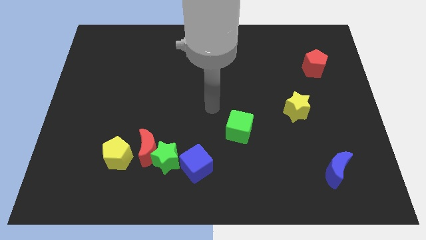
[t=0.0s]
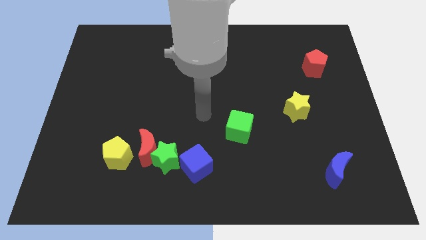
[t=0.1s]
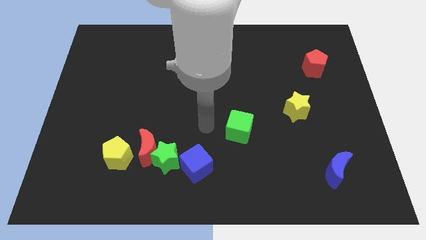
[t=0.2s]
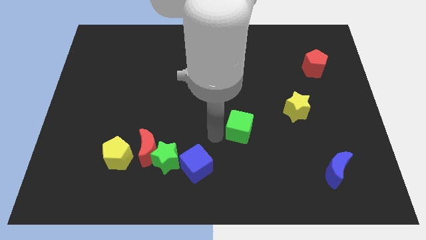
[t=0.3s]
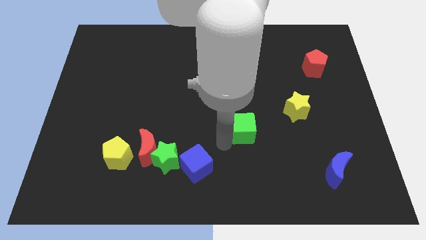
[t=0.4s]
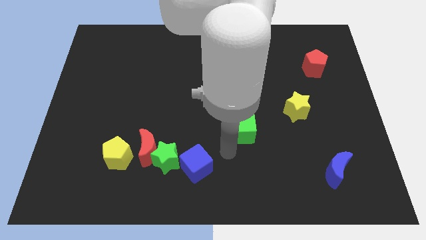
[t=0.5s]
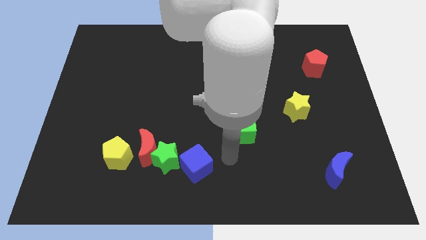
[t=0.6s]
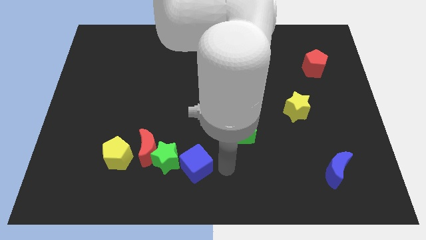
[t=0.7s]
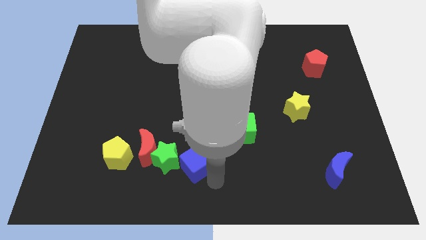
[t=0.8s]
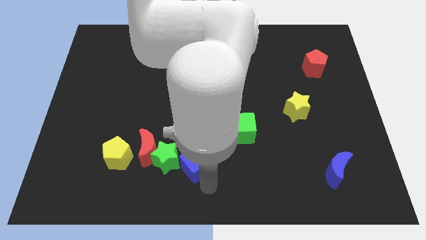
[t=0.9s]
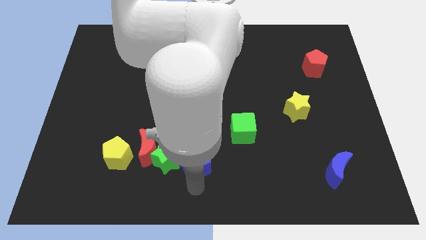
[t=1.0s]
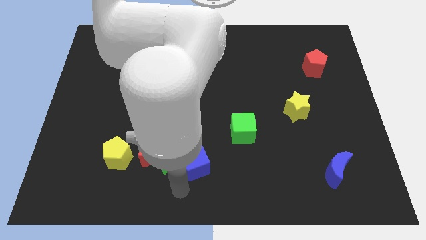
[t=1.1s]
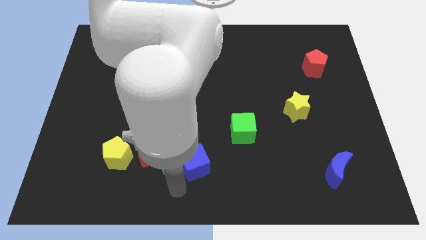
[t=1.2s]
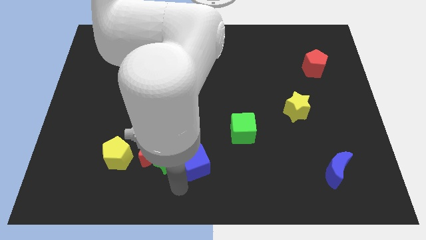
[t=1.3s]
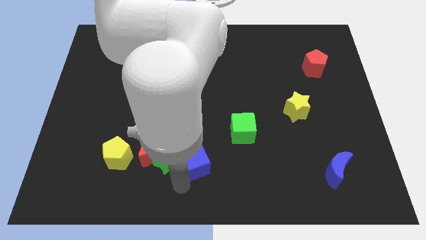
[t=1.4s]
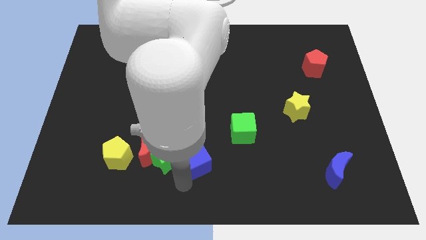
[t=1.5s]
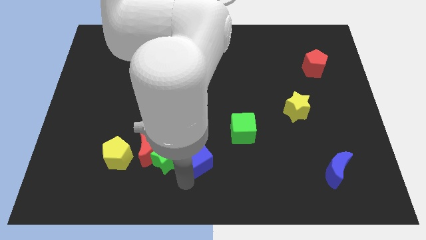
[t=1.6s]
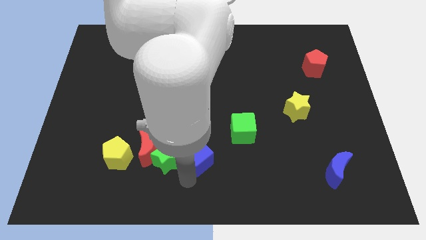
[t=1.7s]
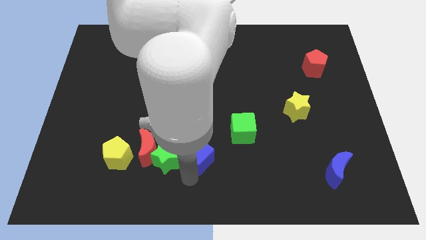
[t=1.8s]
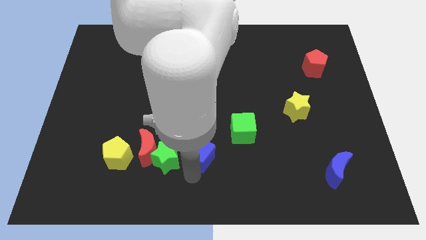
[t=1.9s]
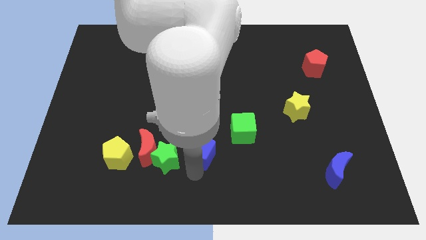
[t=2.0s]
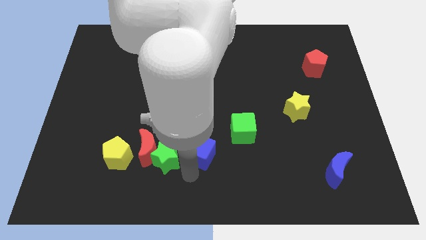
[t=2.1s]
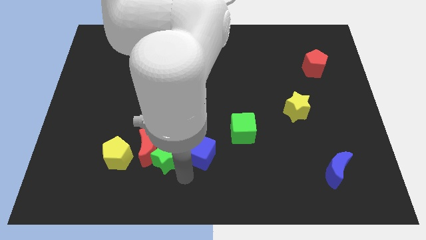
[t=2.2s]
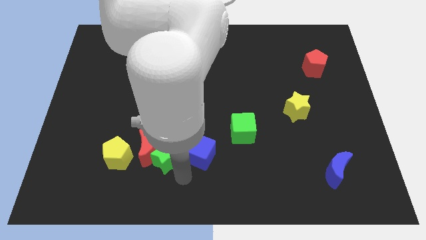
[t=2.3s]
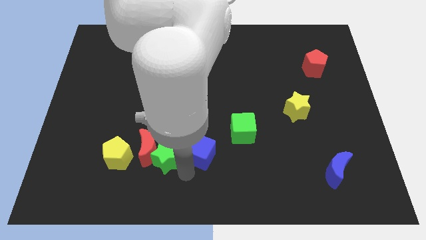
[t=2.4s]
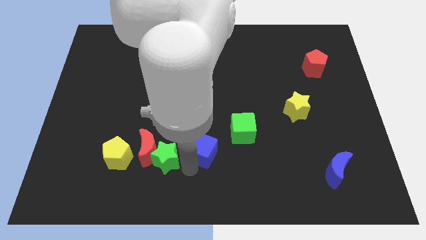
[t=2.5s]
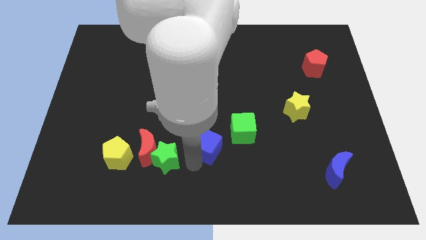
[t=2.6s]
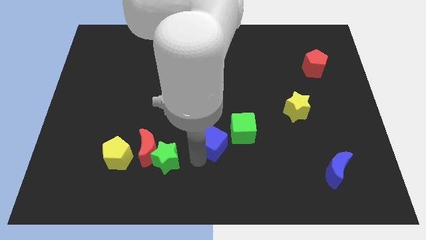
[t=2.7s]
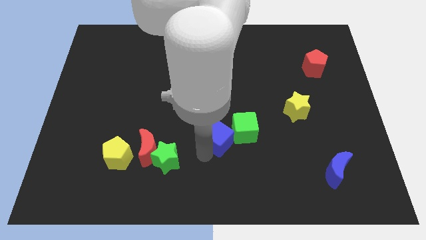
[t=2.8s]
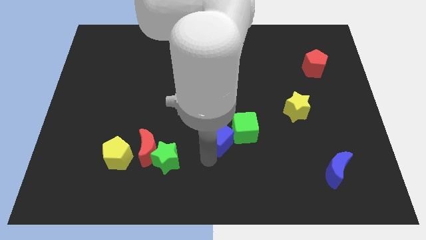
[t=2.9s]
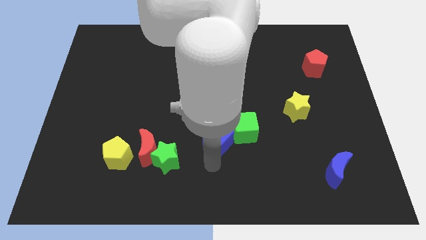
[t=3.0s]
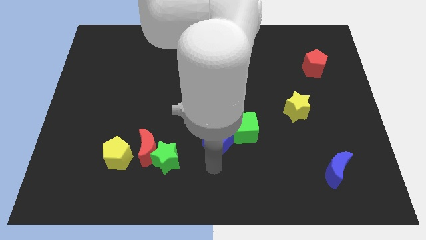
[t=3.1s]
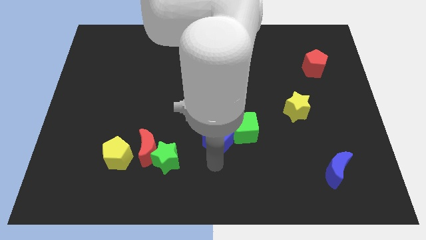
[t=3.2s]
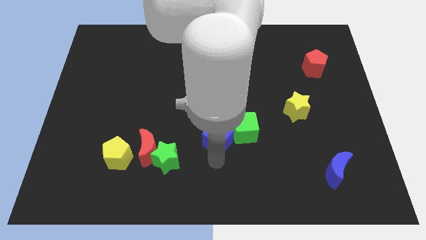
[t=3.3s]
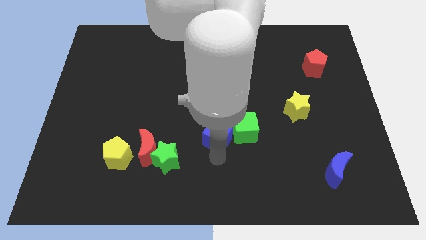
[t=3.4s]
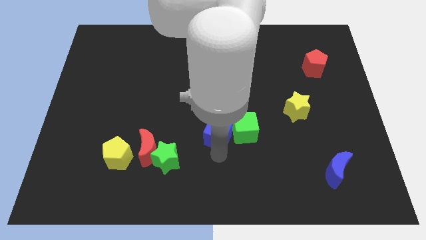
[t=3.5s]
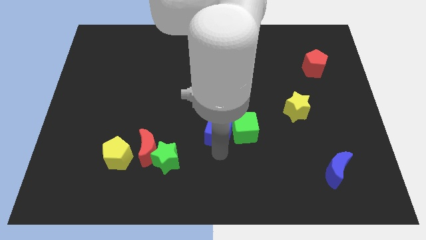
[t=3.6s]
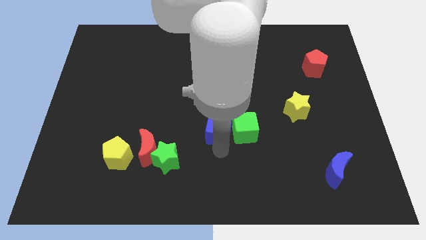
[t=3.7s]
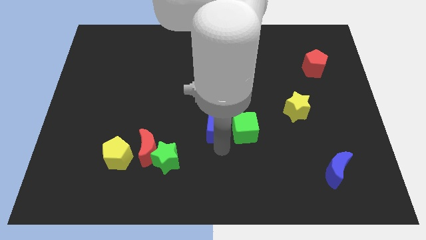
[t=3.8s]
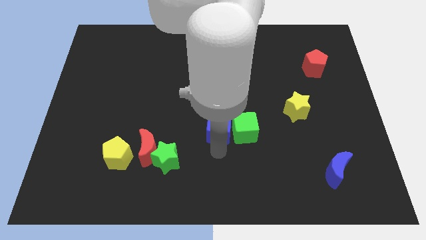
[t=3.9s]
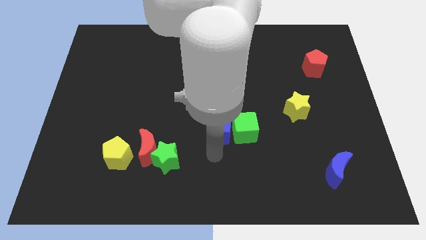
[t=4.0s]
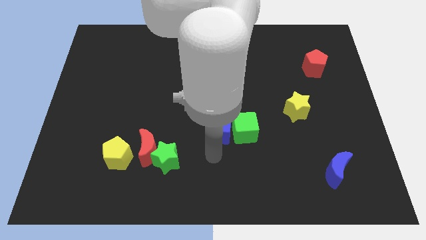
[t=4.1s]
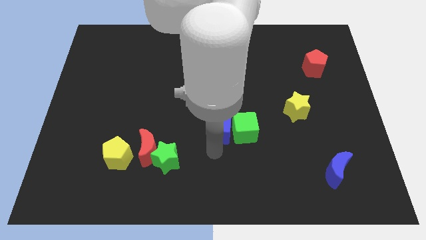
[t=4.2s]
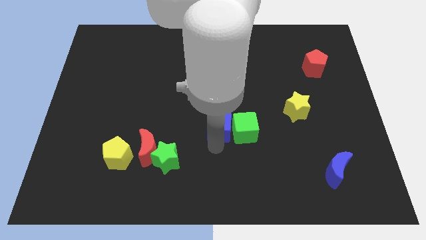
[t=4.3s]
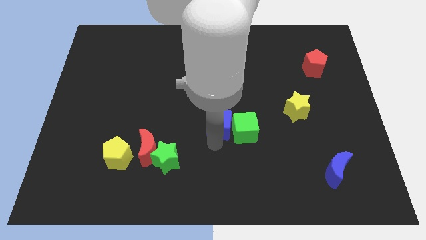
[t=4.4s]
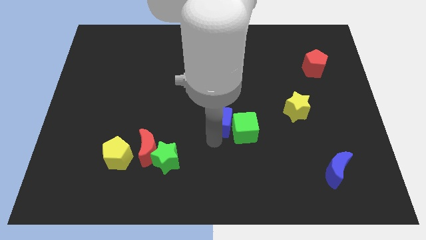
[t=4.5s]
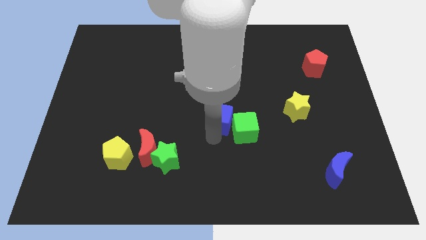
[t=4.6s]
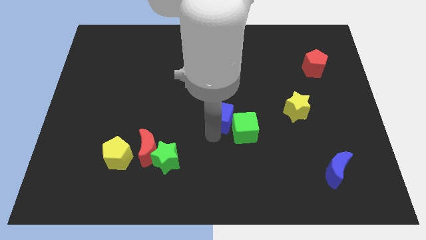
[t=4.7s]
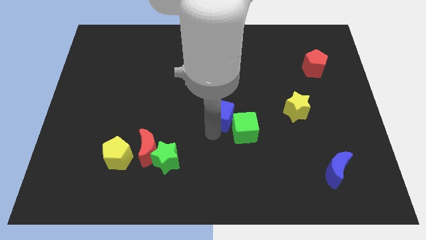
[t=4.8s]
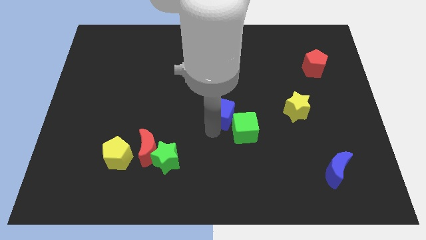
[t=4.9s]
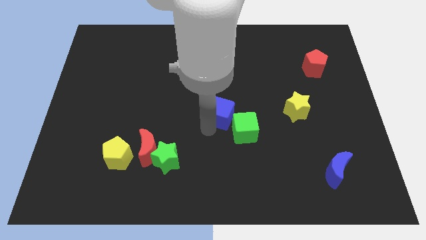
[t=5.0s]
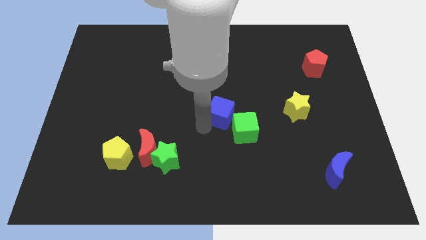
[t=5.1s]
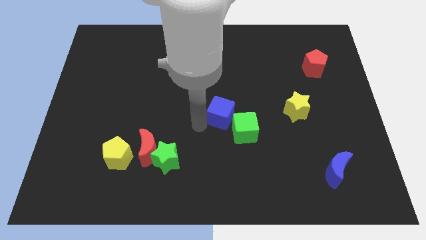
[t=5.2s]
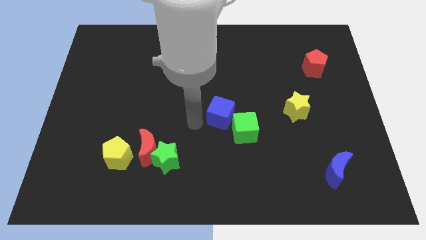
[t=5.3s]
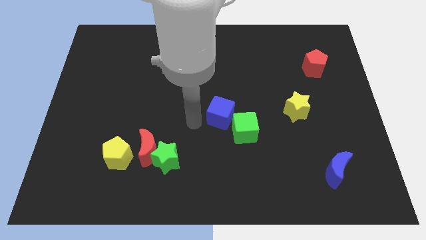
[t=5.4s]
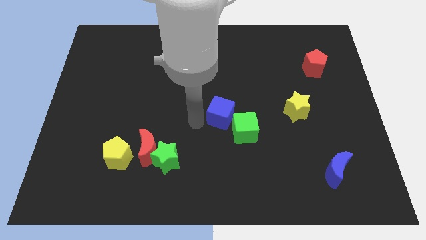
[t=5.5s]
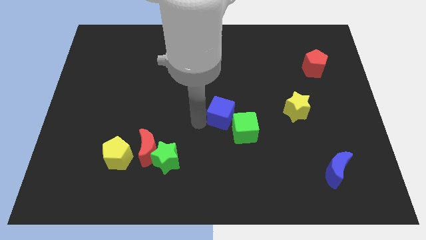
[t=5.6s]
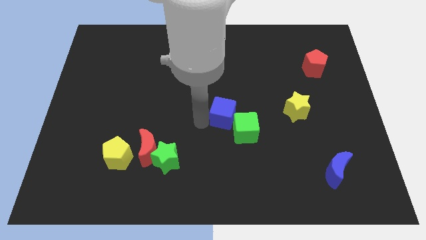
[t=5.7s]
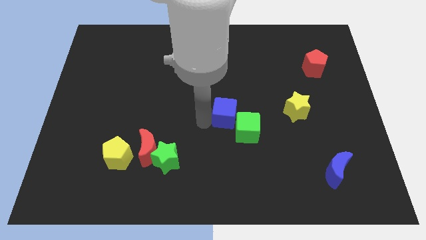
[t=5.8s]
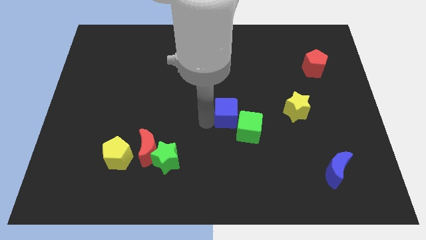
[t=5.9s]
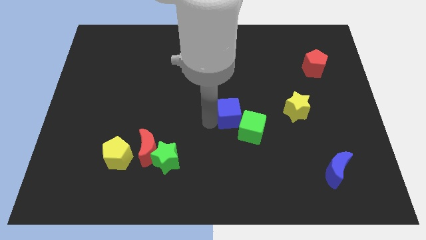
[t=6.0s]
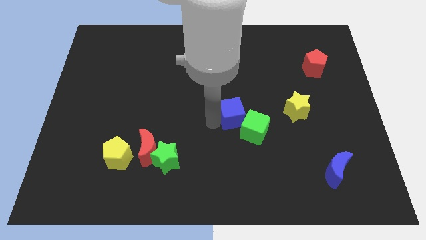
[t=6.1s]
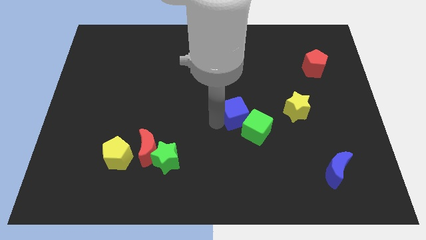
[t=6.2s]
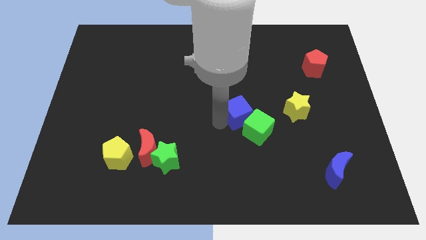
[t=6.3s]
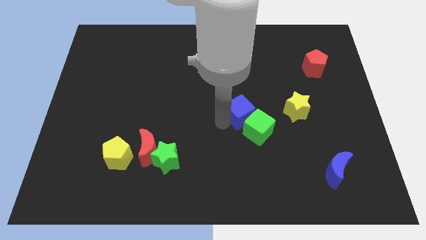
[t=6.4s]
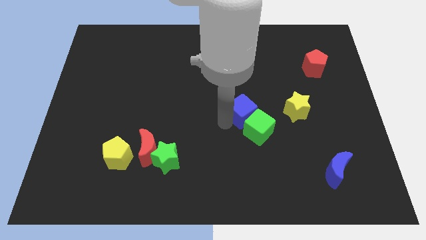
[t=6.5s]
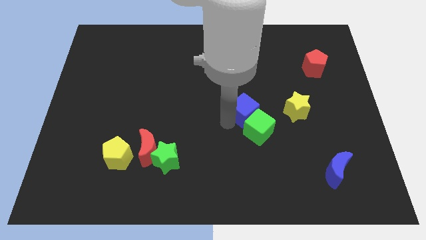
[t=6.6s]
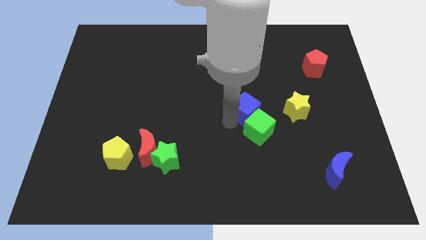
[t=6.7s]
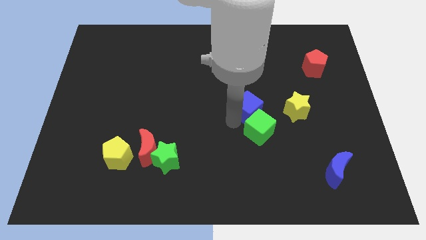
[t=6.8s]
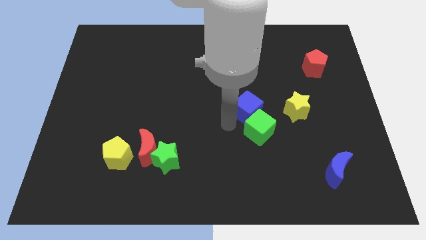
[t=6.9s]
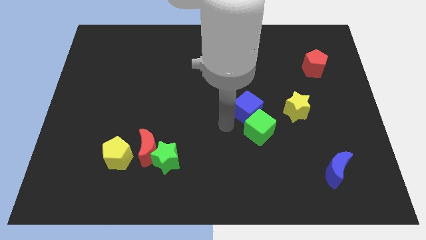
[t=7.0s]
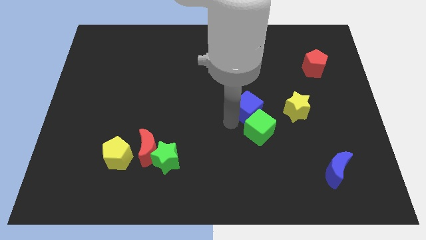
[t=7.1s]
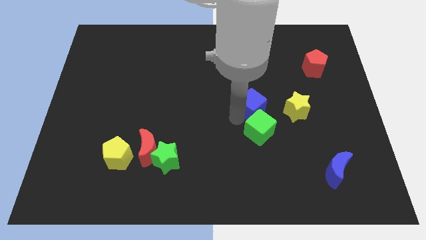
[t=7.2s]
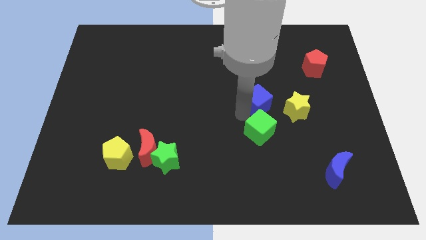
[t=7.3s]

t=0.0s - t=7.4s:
push the blue cube up and right

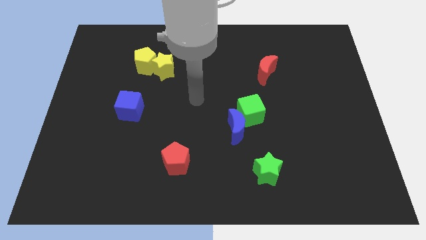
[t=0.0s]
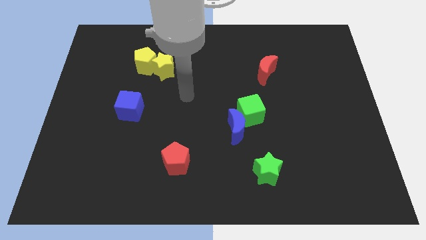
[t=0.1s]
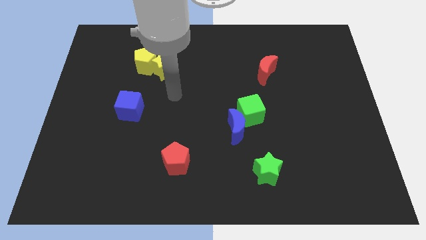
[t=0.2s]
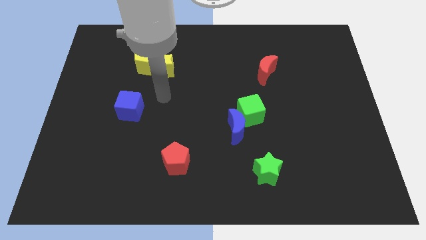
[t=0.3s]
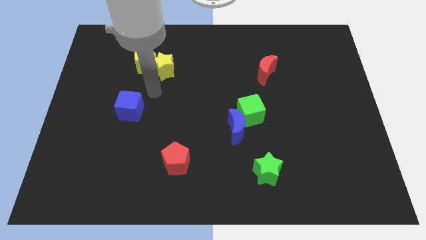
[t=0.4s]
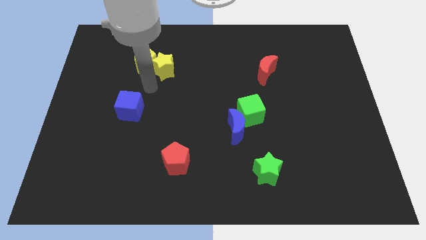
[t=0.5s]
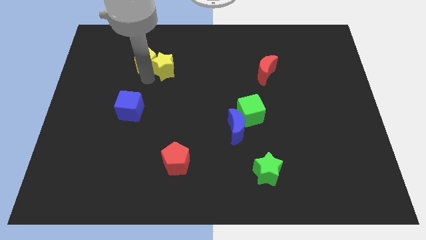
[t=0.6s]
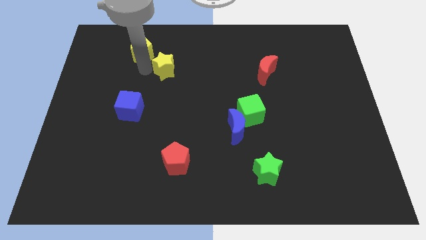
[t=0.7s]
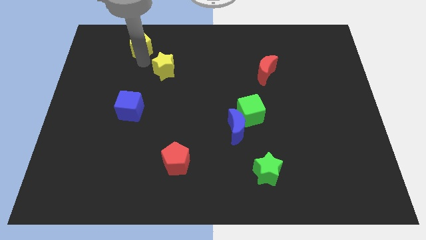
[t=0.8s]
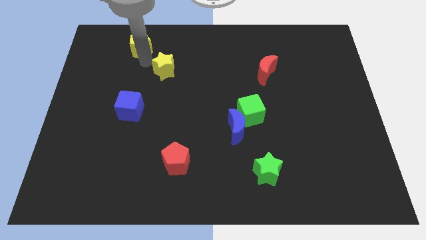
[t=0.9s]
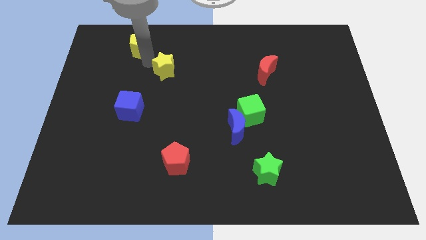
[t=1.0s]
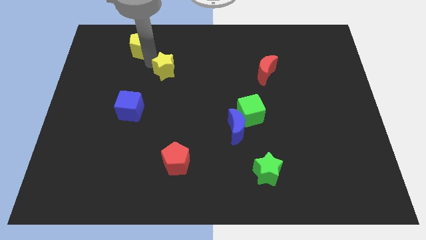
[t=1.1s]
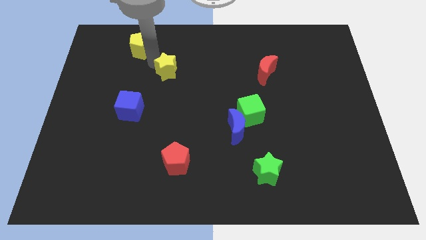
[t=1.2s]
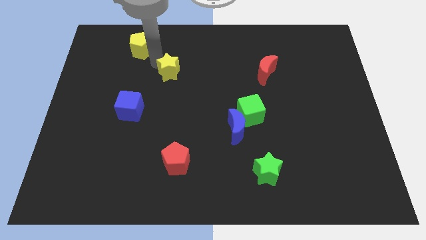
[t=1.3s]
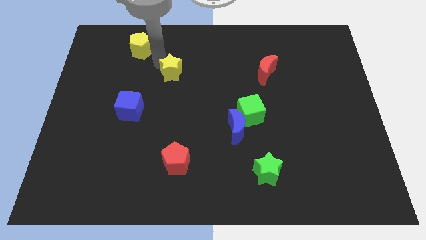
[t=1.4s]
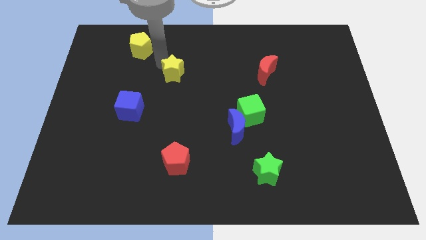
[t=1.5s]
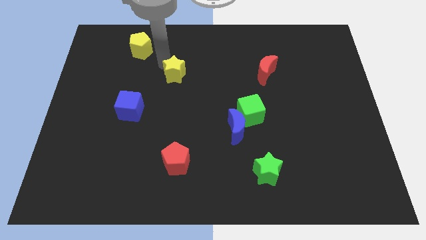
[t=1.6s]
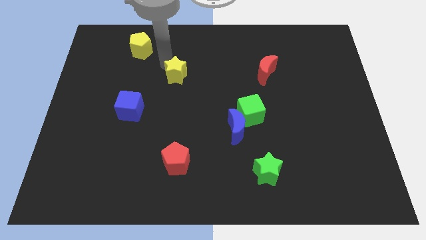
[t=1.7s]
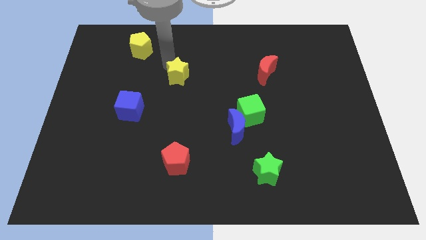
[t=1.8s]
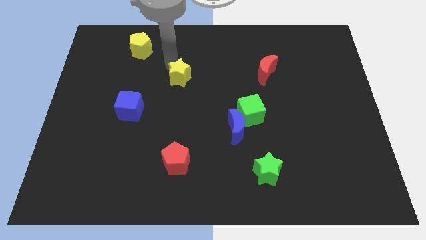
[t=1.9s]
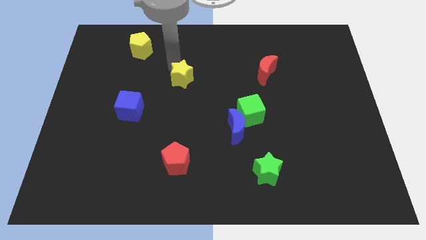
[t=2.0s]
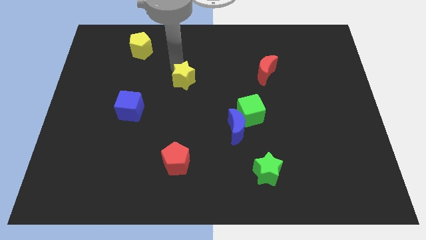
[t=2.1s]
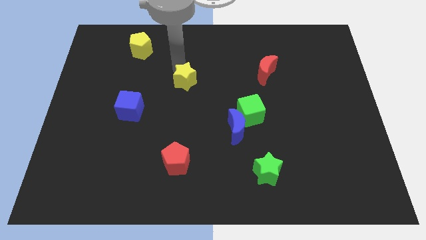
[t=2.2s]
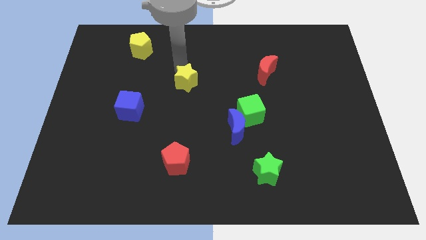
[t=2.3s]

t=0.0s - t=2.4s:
push the yellow star down and right a bit
